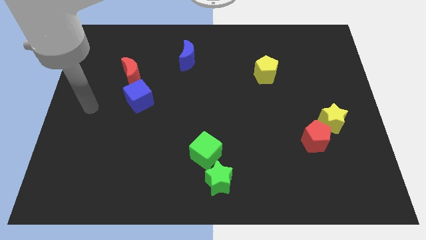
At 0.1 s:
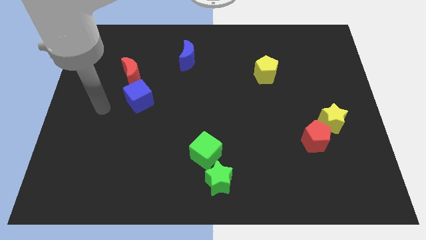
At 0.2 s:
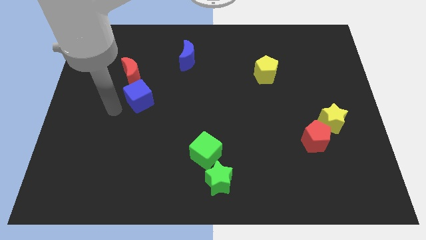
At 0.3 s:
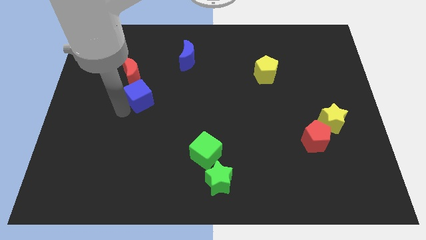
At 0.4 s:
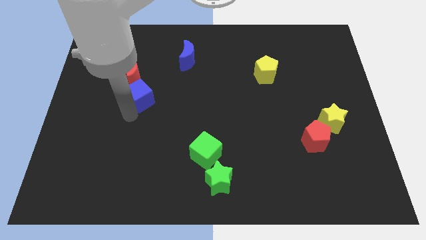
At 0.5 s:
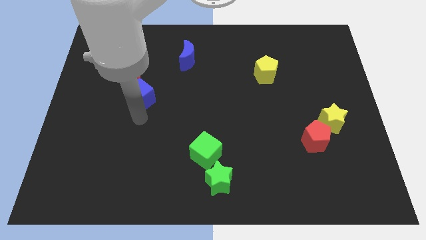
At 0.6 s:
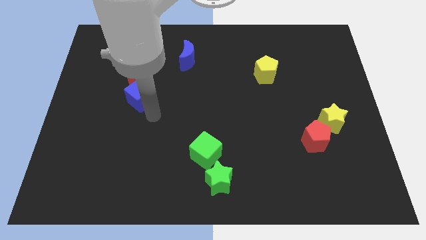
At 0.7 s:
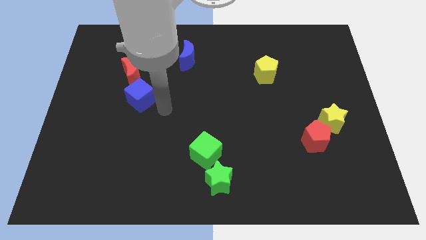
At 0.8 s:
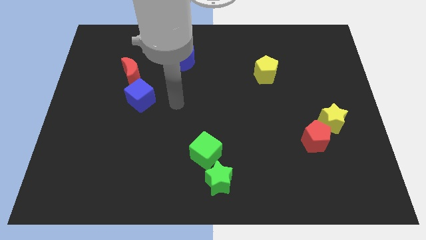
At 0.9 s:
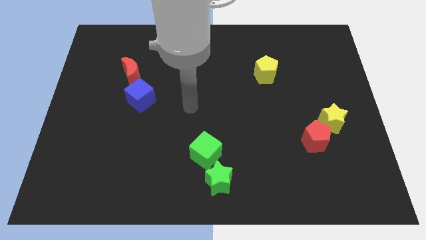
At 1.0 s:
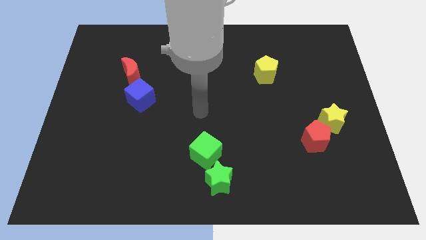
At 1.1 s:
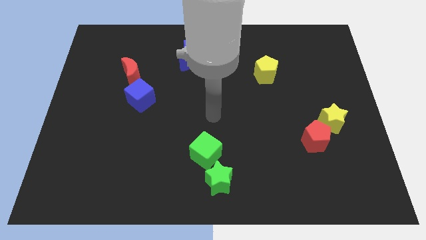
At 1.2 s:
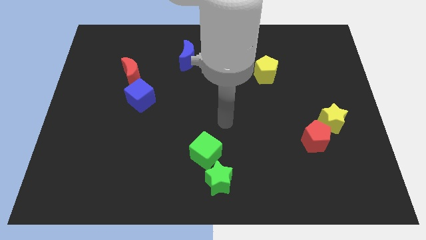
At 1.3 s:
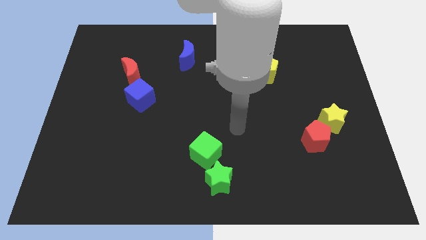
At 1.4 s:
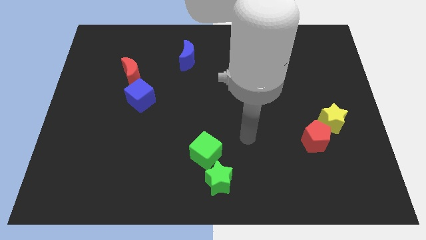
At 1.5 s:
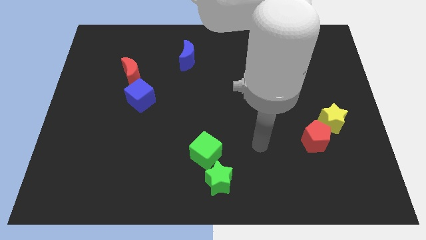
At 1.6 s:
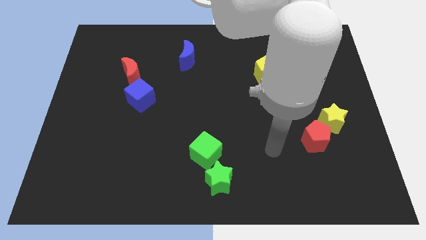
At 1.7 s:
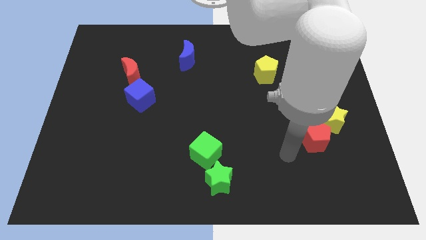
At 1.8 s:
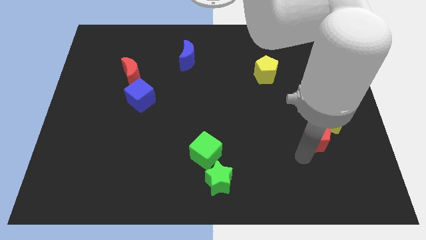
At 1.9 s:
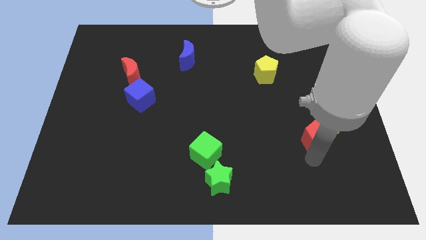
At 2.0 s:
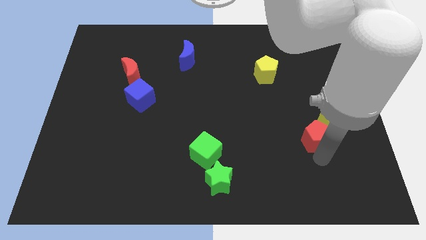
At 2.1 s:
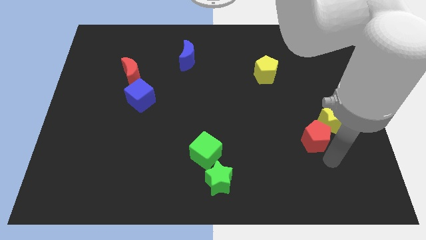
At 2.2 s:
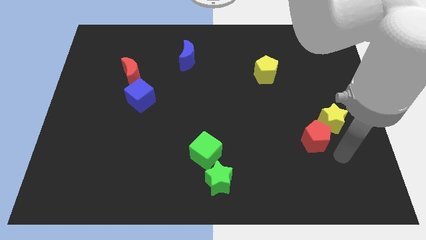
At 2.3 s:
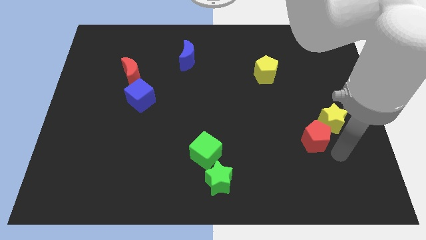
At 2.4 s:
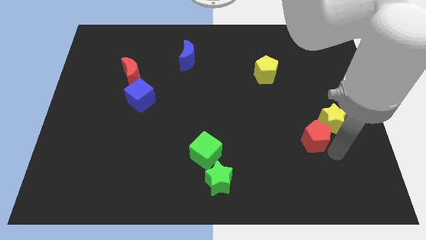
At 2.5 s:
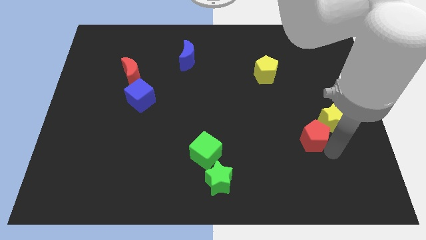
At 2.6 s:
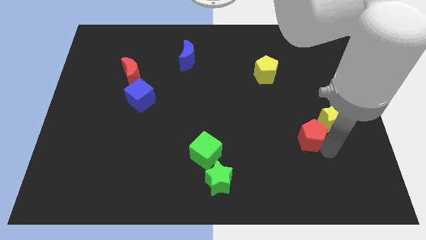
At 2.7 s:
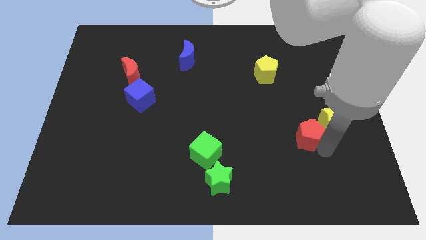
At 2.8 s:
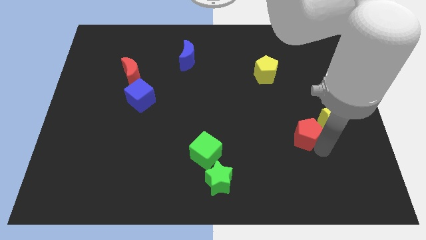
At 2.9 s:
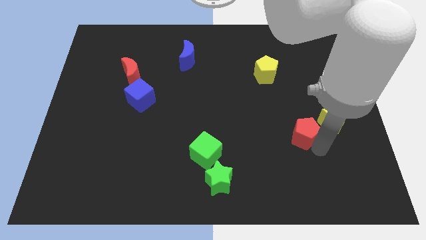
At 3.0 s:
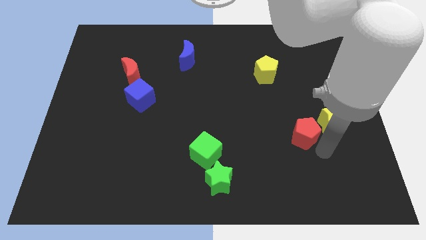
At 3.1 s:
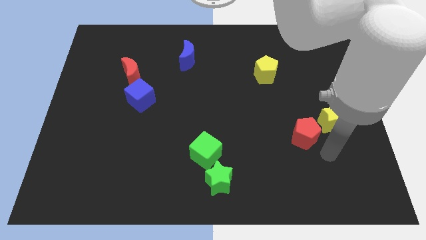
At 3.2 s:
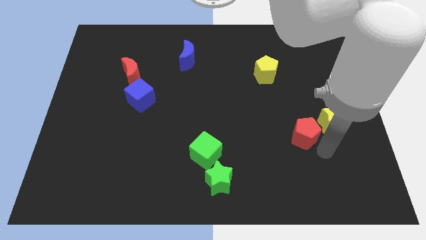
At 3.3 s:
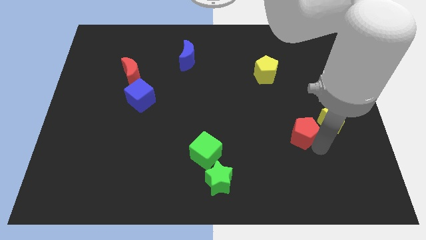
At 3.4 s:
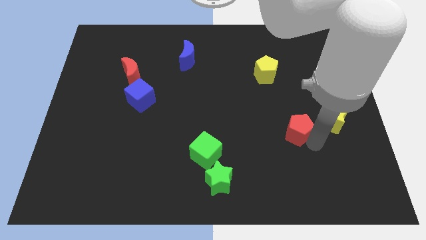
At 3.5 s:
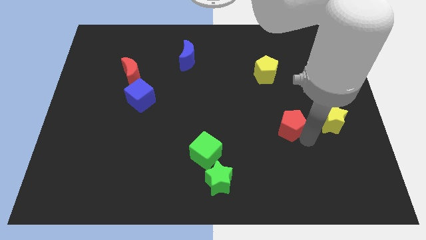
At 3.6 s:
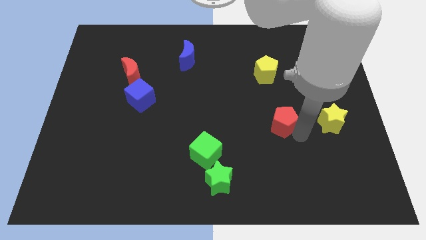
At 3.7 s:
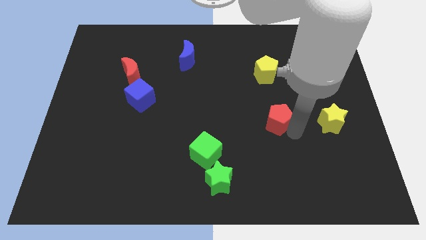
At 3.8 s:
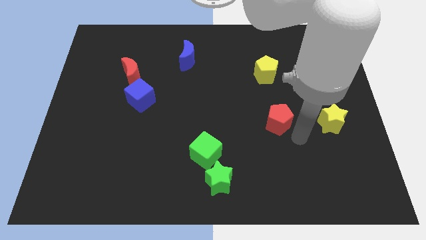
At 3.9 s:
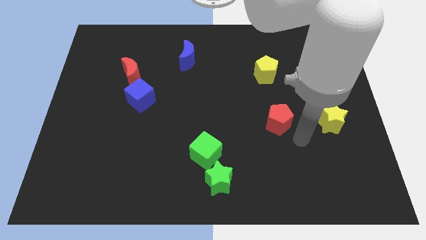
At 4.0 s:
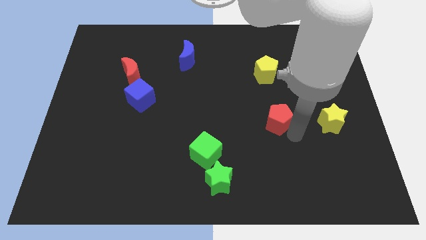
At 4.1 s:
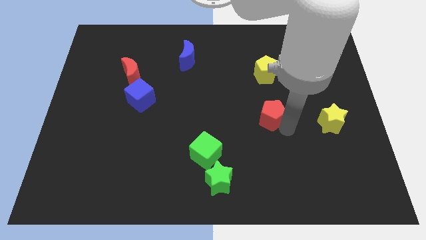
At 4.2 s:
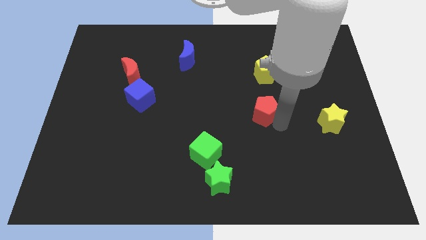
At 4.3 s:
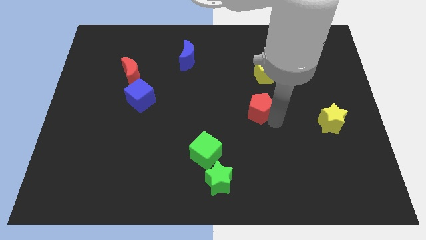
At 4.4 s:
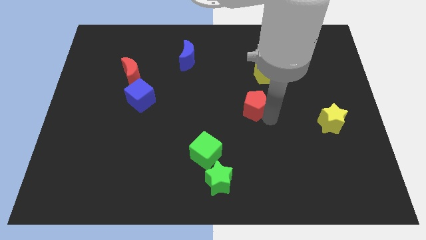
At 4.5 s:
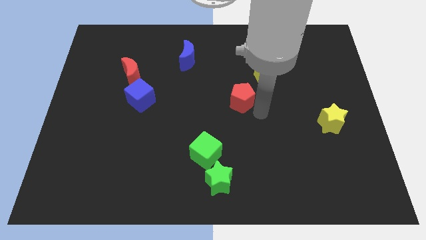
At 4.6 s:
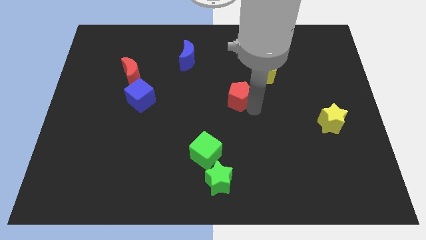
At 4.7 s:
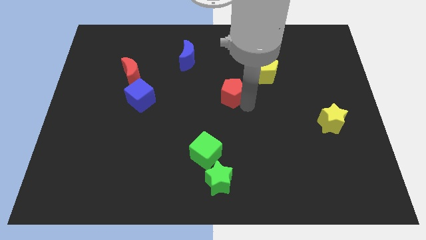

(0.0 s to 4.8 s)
move the red pentagon diagonally upwards and left

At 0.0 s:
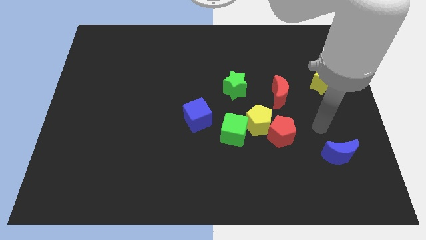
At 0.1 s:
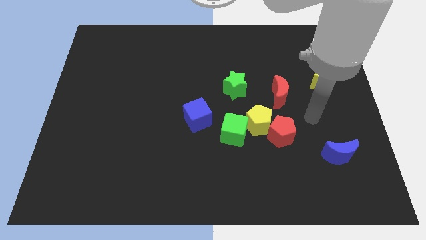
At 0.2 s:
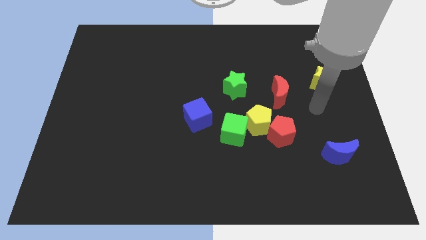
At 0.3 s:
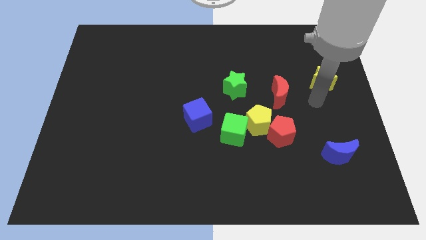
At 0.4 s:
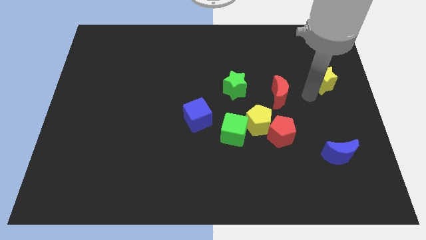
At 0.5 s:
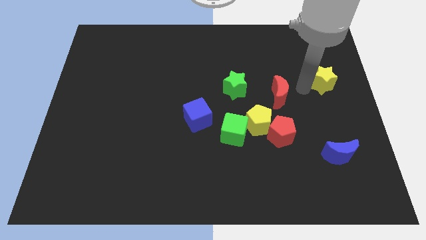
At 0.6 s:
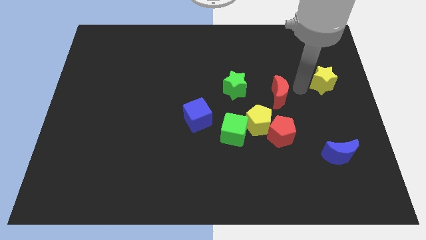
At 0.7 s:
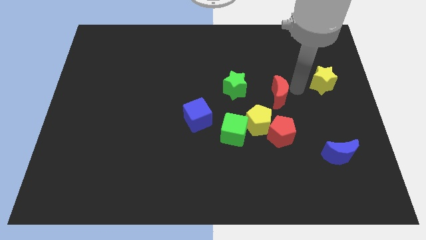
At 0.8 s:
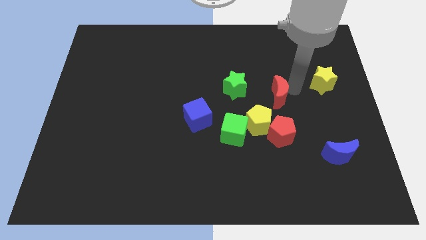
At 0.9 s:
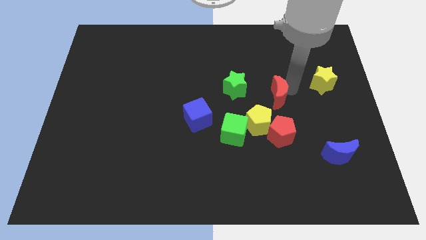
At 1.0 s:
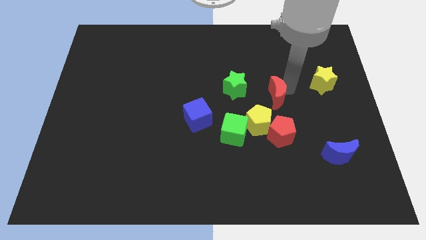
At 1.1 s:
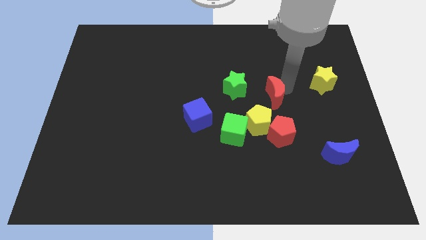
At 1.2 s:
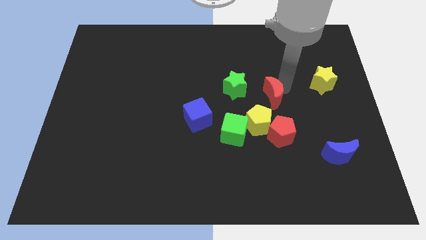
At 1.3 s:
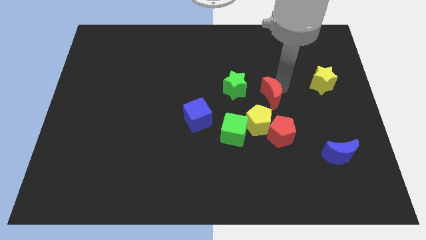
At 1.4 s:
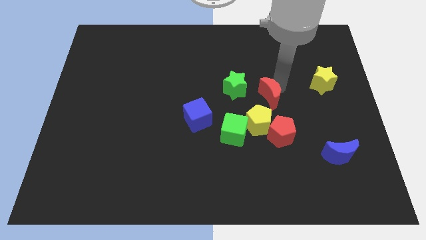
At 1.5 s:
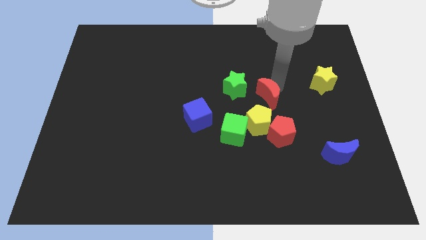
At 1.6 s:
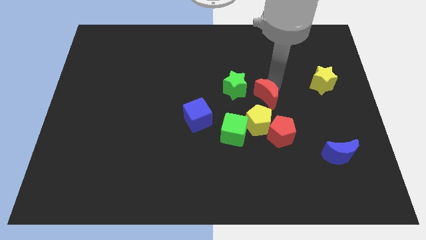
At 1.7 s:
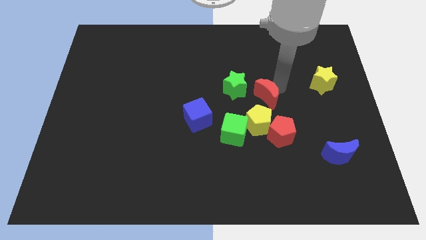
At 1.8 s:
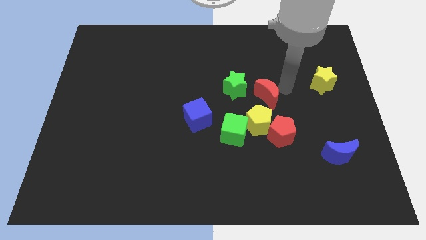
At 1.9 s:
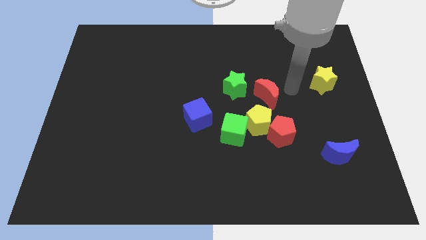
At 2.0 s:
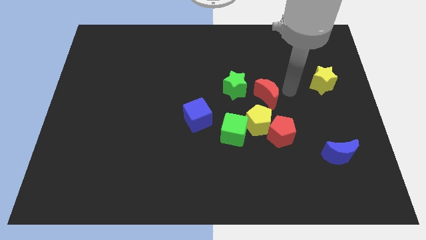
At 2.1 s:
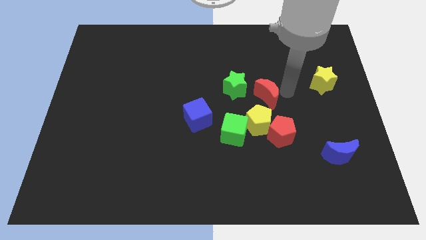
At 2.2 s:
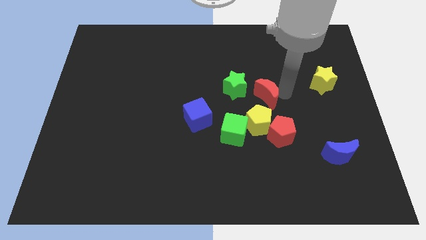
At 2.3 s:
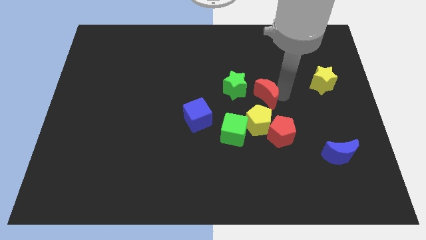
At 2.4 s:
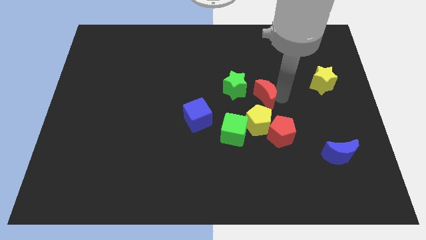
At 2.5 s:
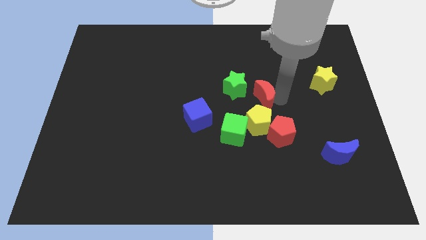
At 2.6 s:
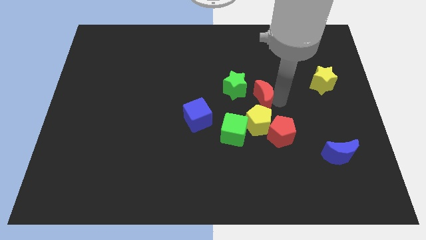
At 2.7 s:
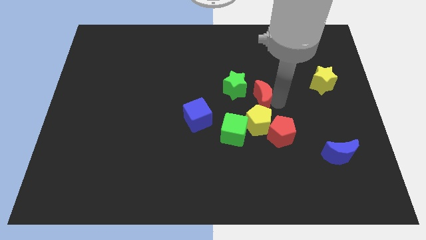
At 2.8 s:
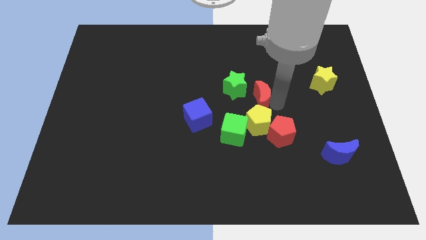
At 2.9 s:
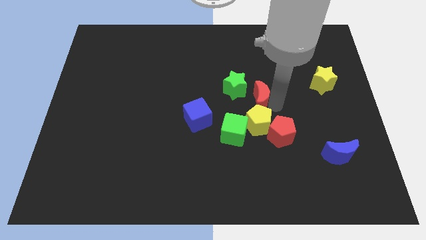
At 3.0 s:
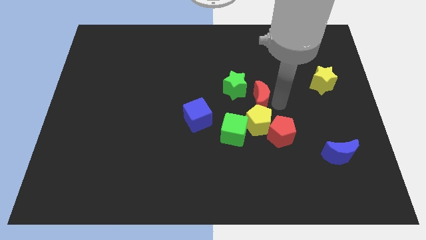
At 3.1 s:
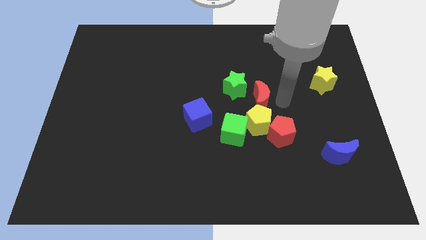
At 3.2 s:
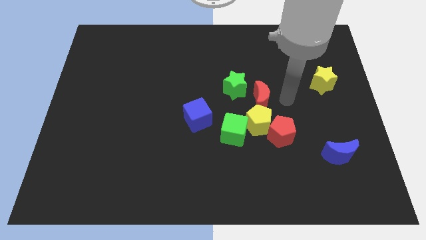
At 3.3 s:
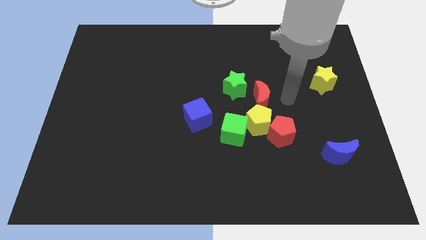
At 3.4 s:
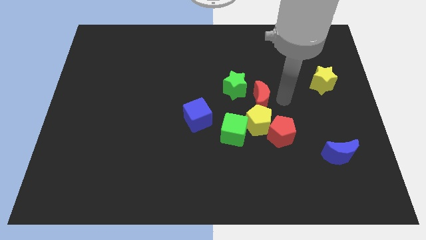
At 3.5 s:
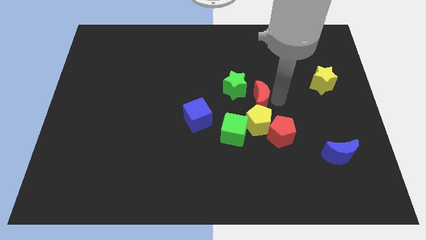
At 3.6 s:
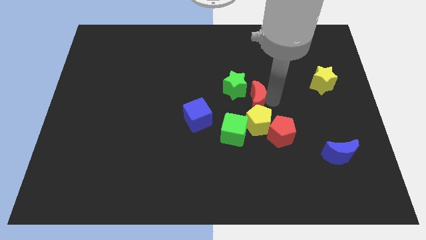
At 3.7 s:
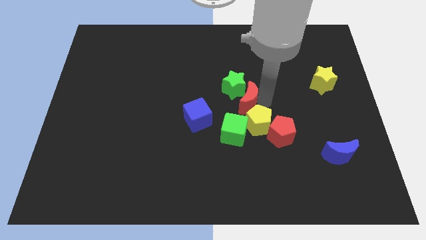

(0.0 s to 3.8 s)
slide the red moon to the left somewhat
